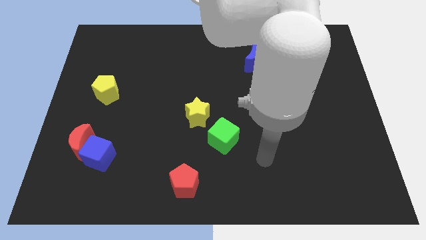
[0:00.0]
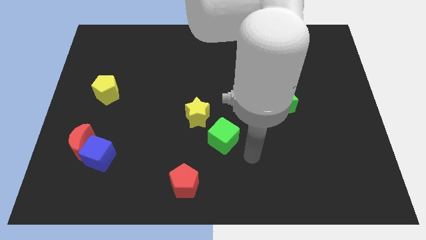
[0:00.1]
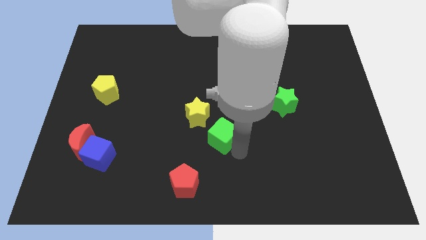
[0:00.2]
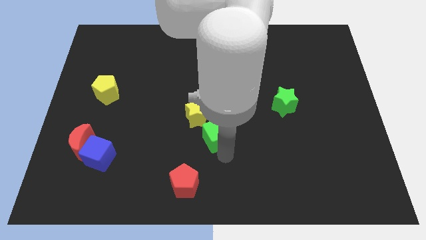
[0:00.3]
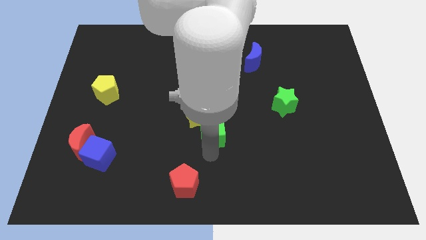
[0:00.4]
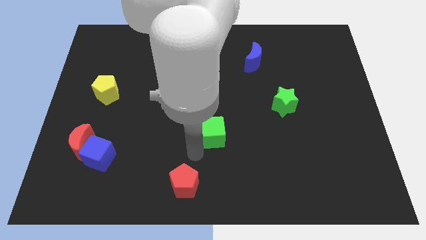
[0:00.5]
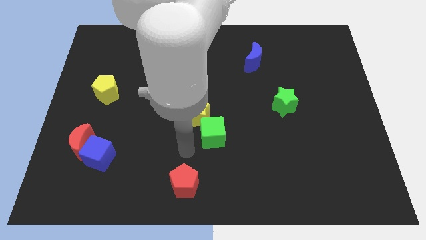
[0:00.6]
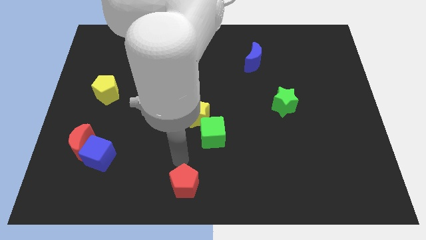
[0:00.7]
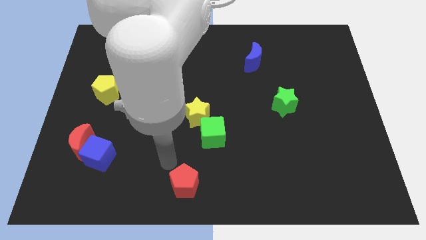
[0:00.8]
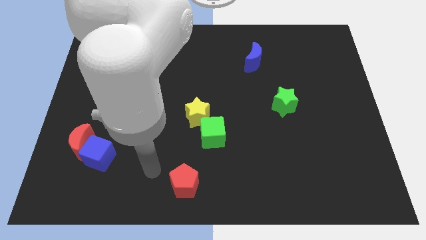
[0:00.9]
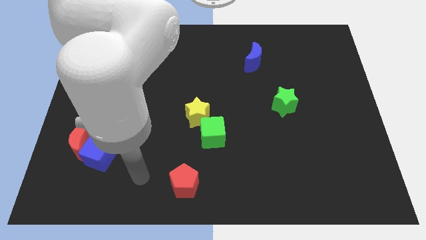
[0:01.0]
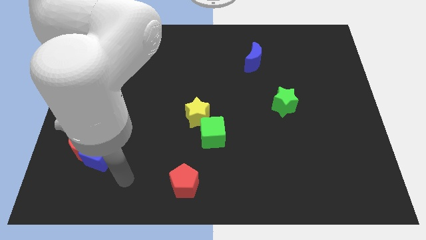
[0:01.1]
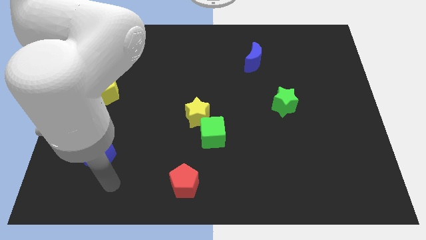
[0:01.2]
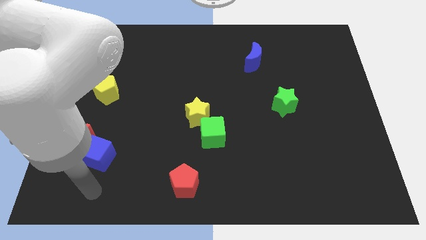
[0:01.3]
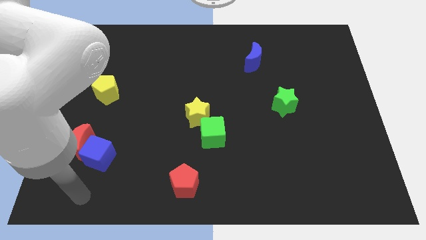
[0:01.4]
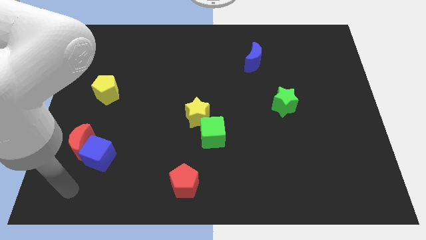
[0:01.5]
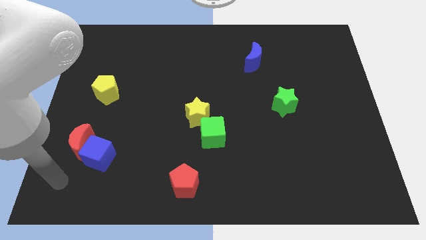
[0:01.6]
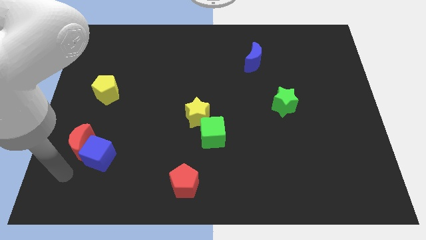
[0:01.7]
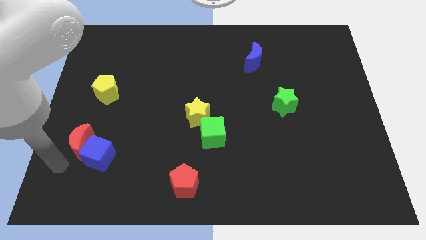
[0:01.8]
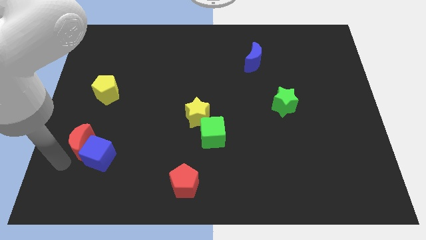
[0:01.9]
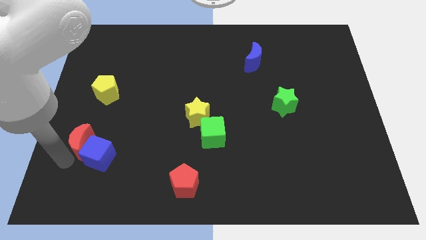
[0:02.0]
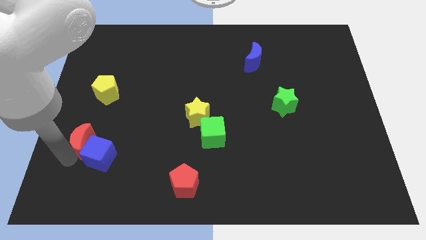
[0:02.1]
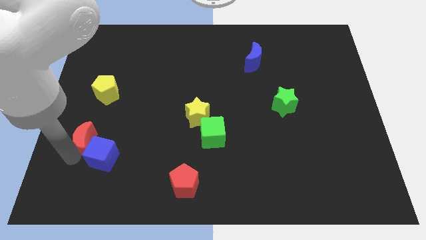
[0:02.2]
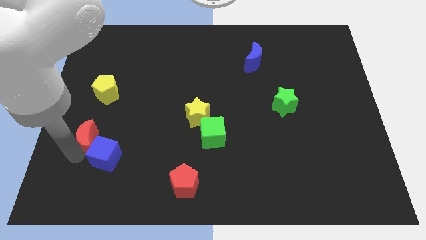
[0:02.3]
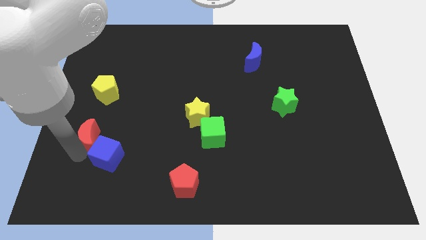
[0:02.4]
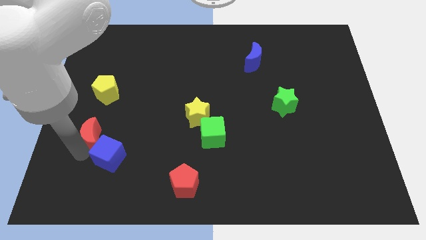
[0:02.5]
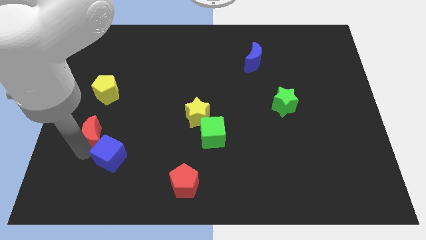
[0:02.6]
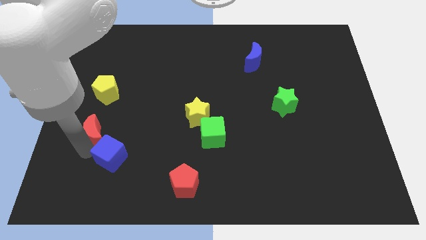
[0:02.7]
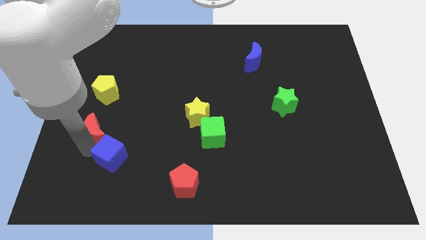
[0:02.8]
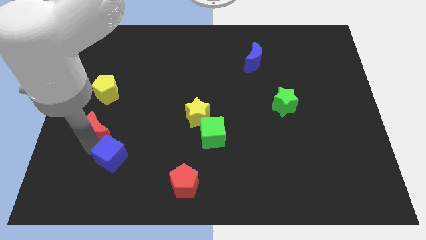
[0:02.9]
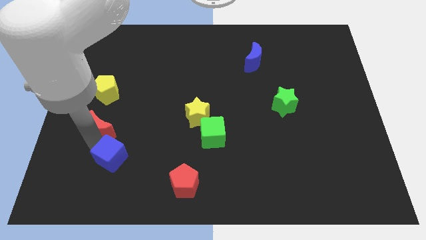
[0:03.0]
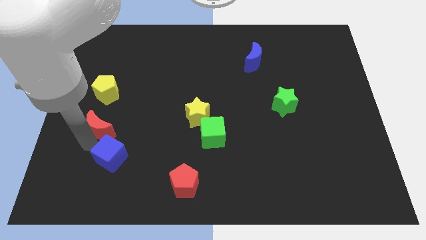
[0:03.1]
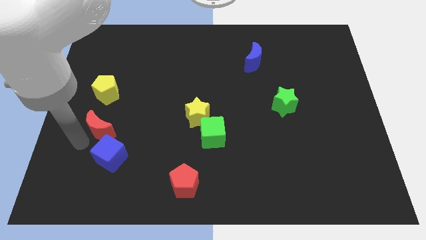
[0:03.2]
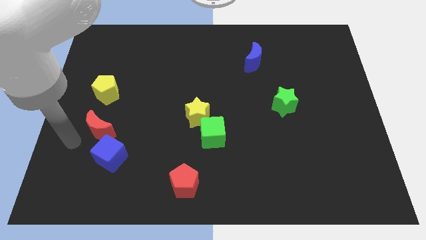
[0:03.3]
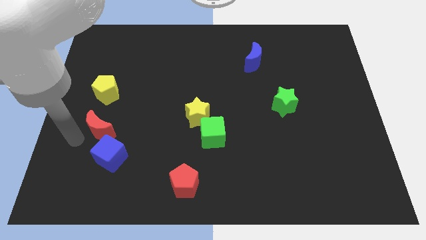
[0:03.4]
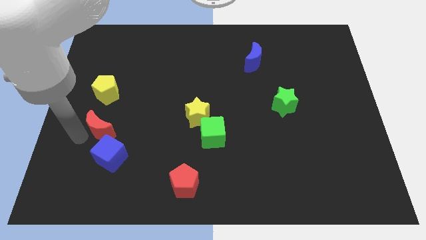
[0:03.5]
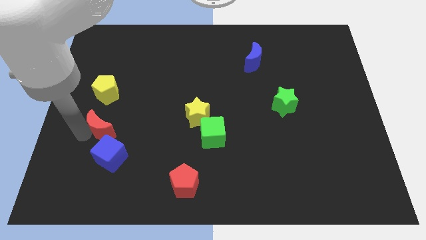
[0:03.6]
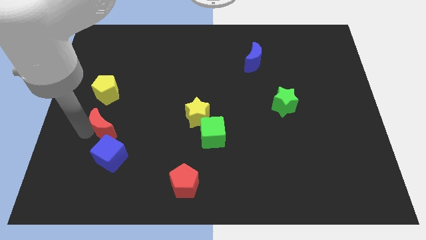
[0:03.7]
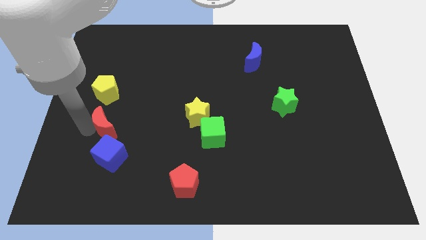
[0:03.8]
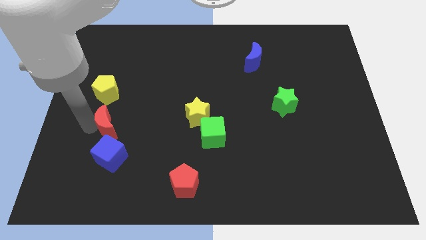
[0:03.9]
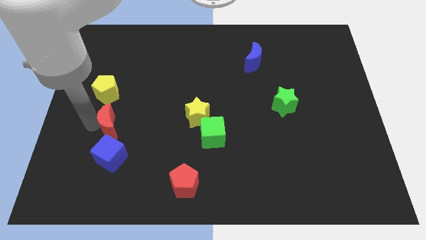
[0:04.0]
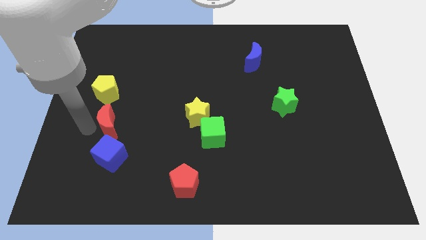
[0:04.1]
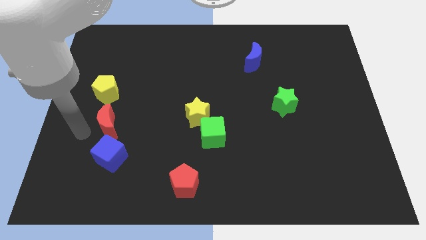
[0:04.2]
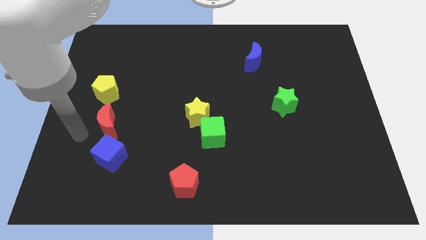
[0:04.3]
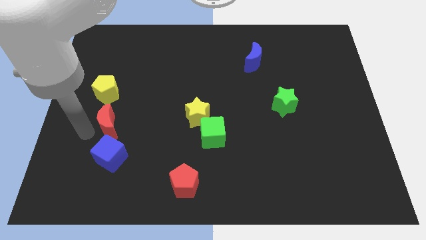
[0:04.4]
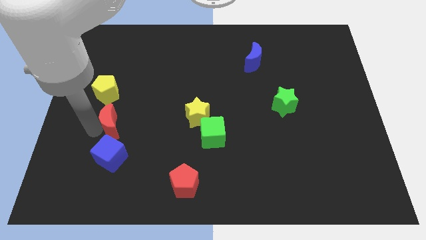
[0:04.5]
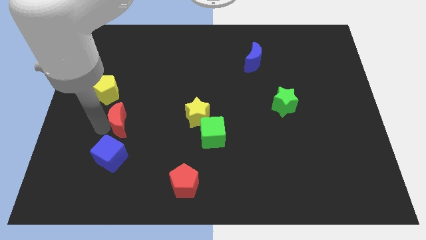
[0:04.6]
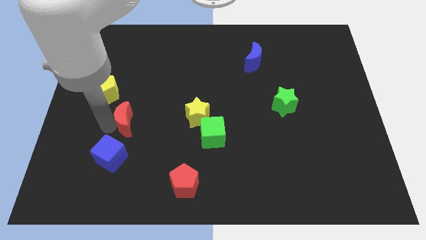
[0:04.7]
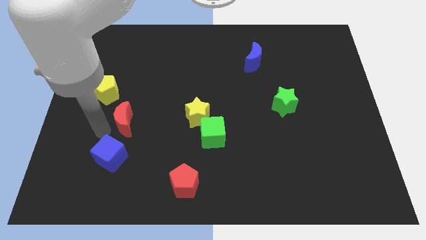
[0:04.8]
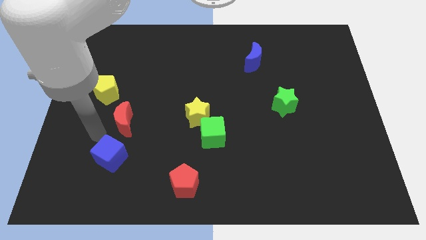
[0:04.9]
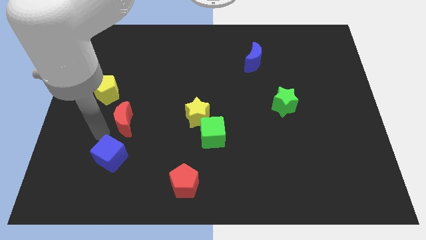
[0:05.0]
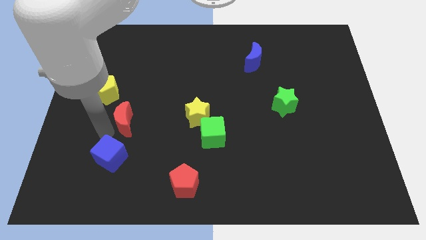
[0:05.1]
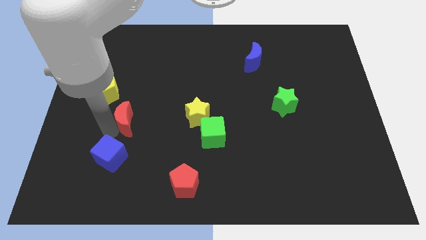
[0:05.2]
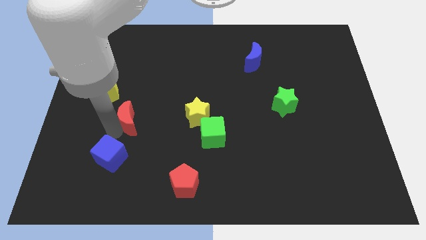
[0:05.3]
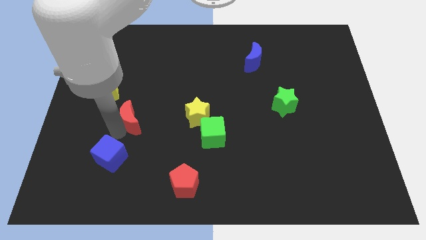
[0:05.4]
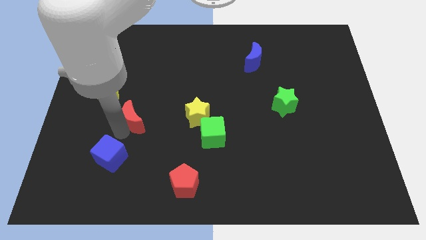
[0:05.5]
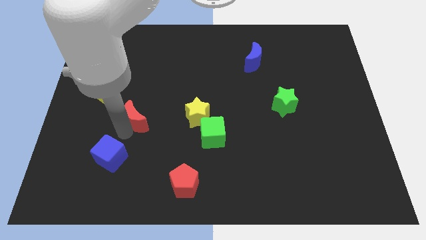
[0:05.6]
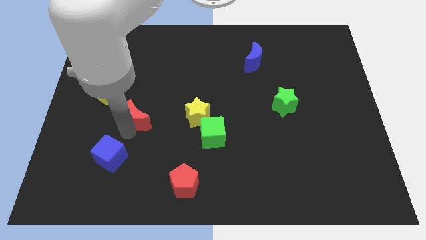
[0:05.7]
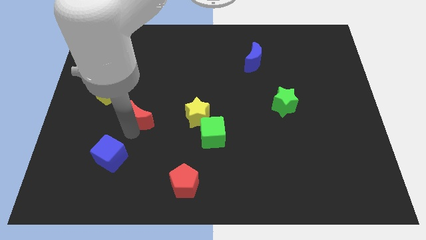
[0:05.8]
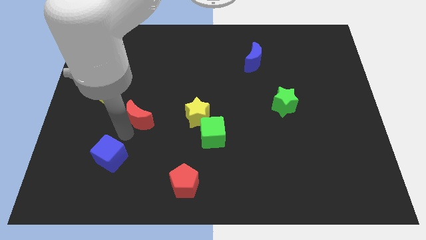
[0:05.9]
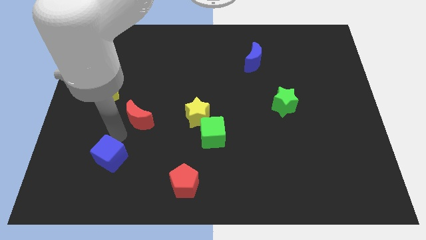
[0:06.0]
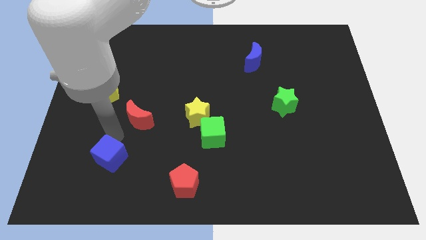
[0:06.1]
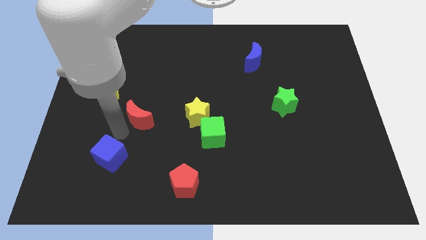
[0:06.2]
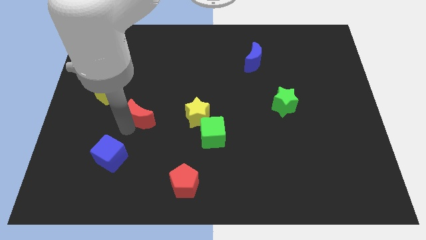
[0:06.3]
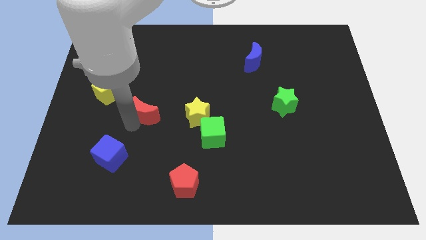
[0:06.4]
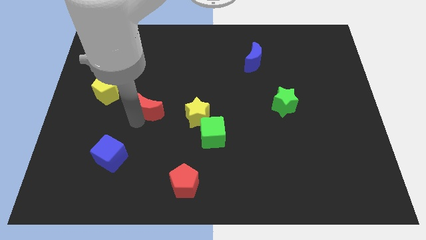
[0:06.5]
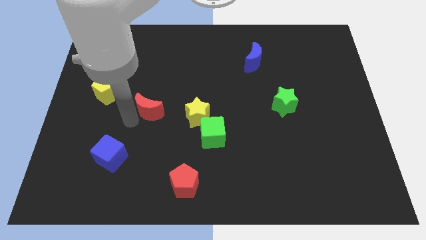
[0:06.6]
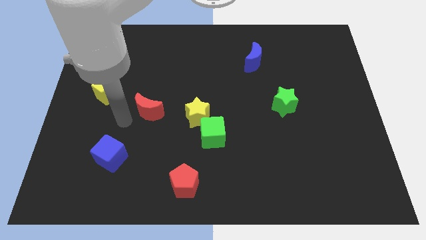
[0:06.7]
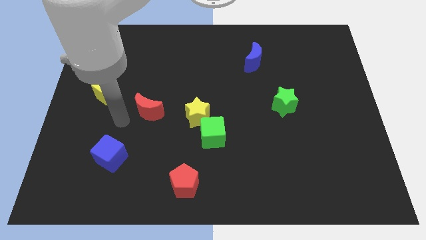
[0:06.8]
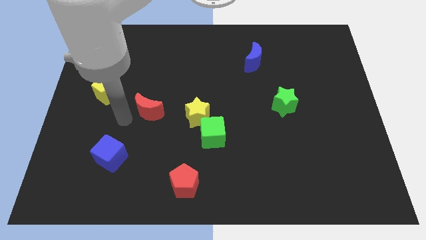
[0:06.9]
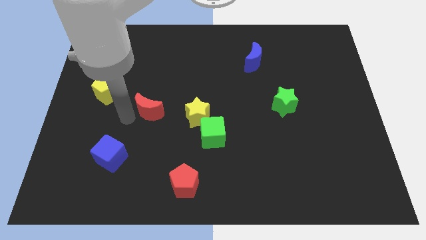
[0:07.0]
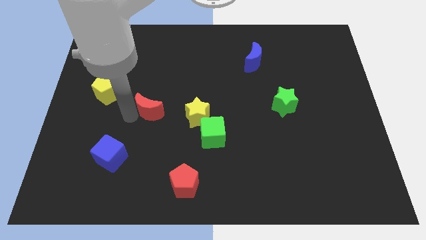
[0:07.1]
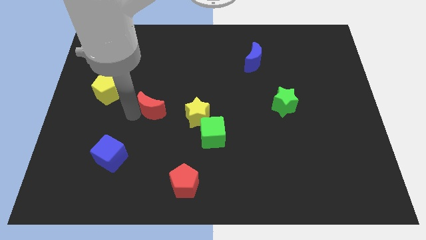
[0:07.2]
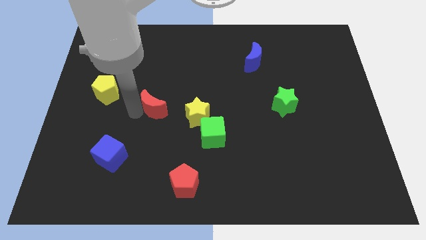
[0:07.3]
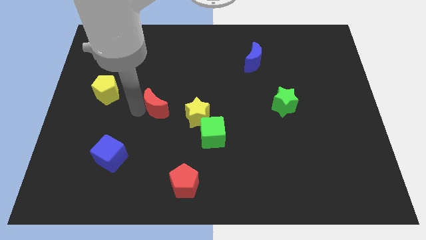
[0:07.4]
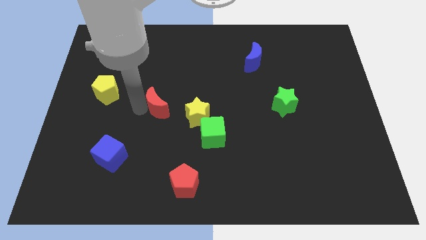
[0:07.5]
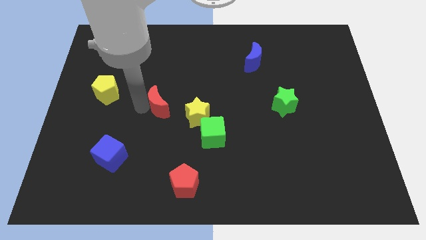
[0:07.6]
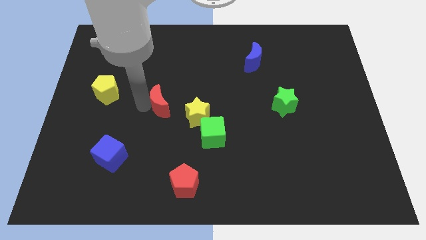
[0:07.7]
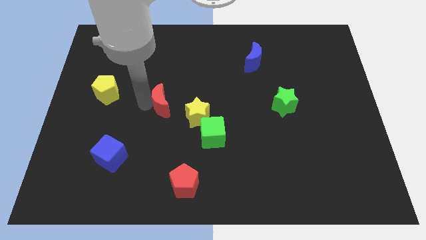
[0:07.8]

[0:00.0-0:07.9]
push the red moon to the middle
